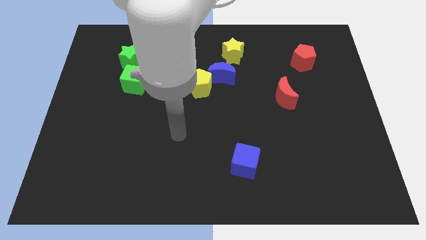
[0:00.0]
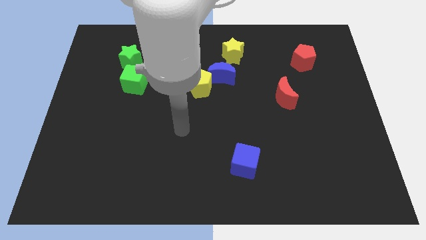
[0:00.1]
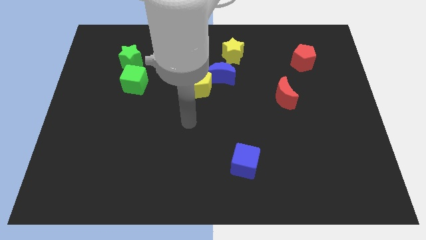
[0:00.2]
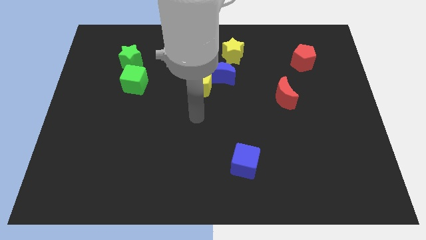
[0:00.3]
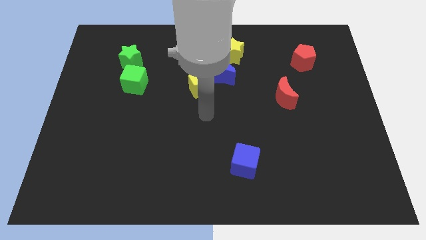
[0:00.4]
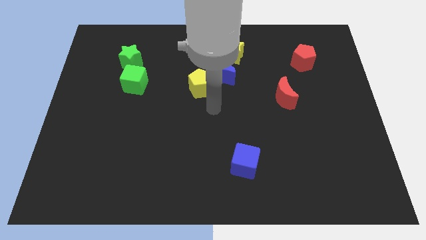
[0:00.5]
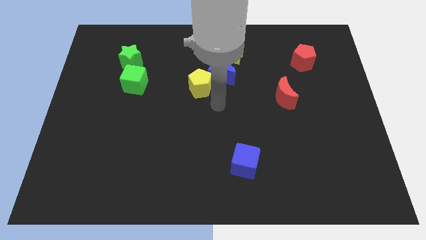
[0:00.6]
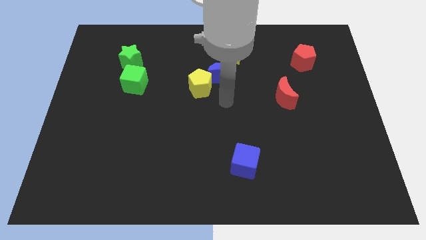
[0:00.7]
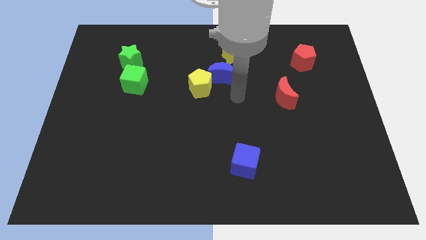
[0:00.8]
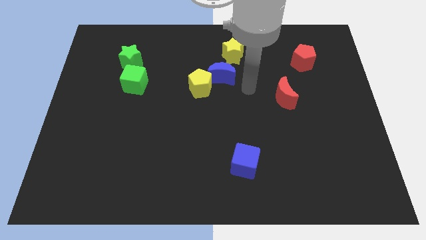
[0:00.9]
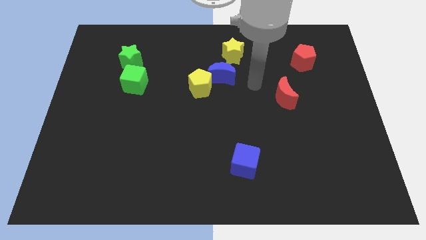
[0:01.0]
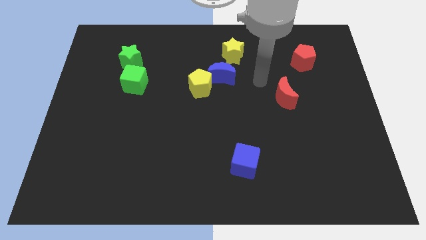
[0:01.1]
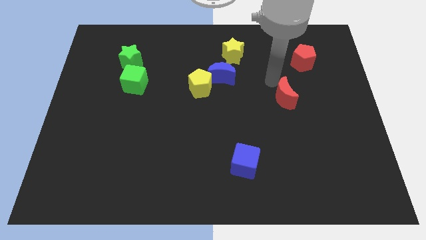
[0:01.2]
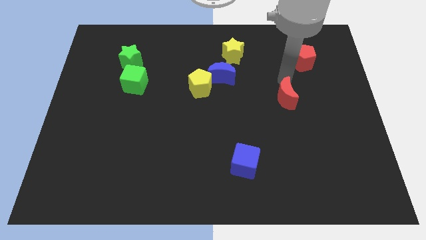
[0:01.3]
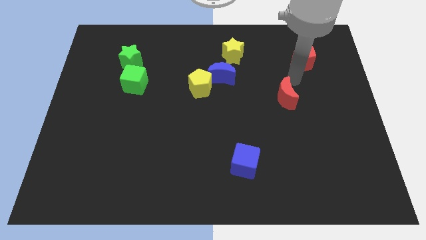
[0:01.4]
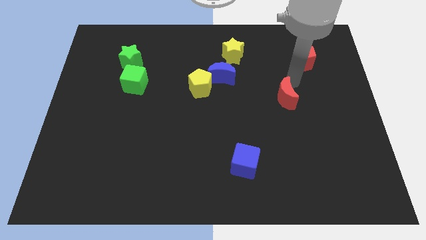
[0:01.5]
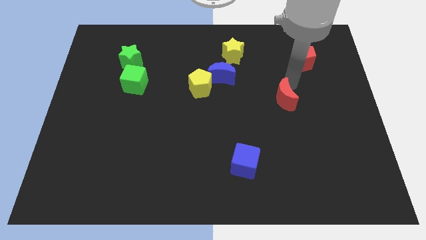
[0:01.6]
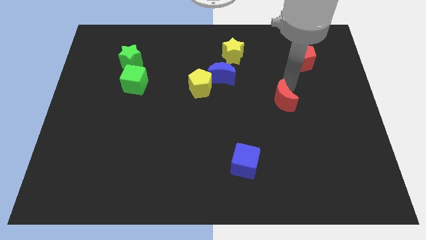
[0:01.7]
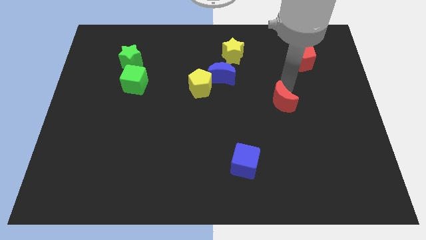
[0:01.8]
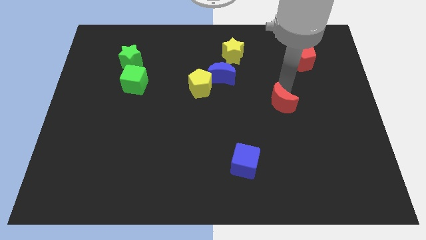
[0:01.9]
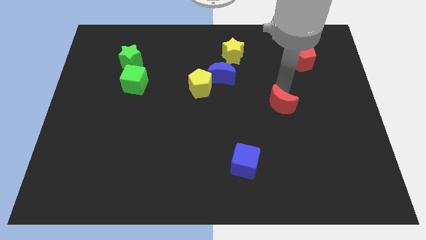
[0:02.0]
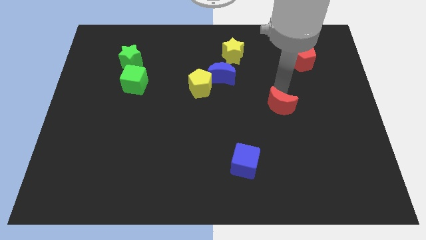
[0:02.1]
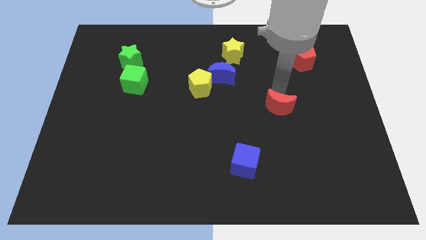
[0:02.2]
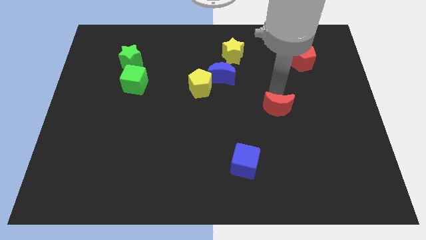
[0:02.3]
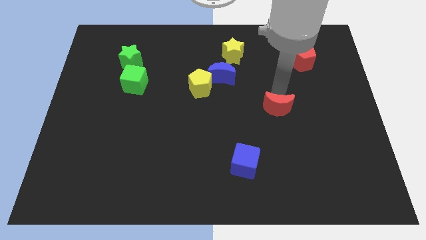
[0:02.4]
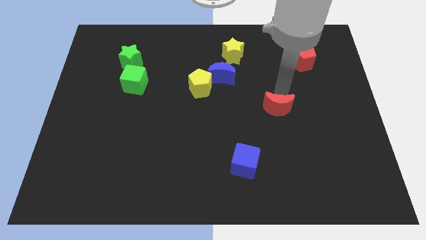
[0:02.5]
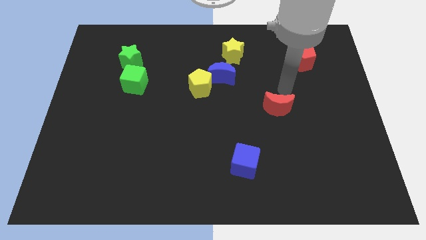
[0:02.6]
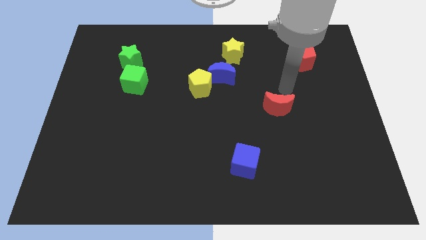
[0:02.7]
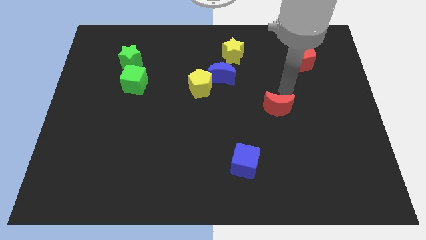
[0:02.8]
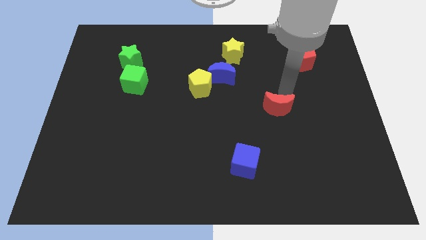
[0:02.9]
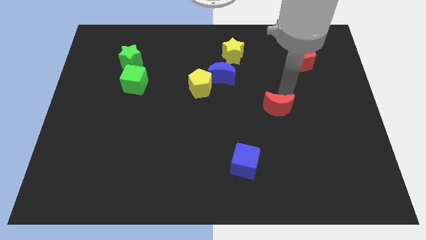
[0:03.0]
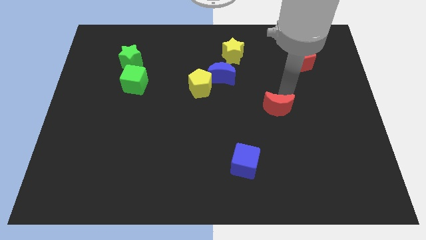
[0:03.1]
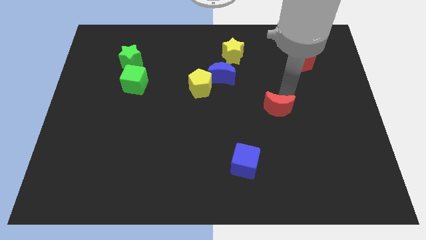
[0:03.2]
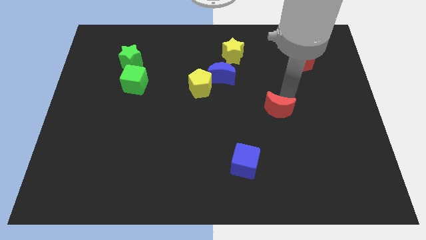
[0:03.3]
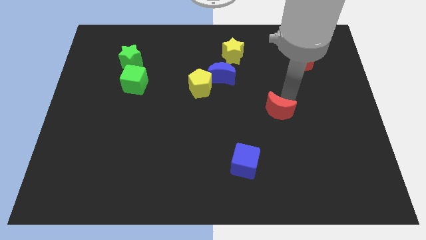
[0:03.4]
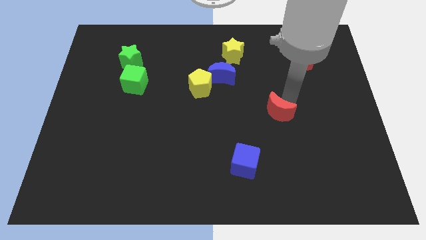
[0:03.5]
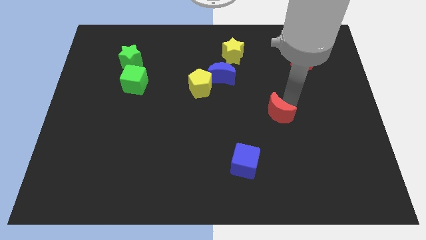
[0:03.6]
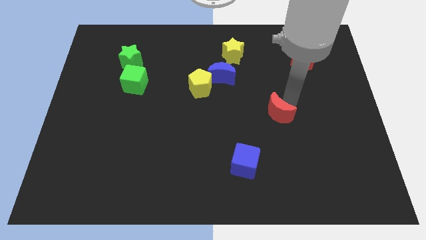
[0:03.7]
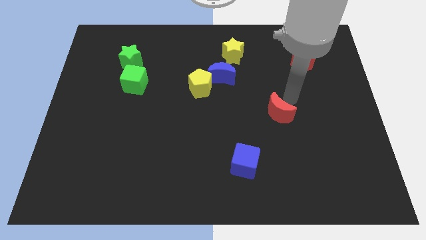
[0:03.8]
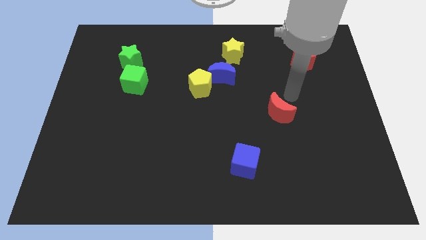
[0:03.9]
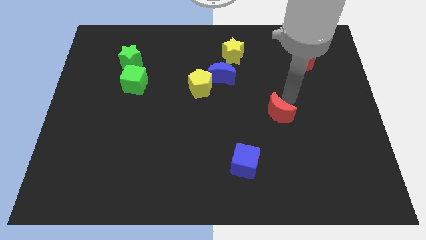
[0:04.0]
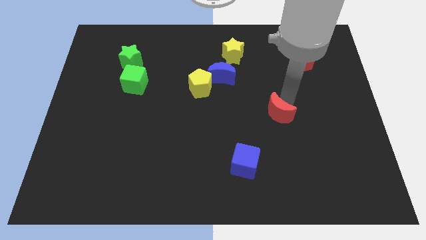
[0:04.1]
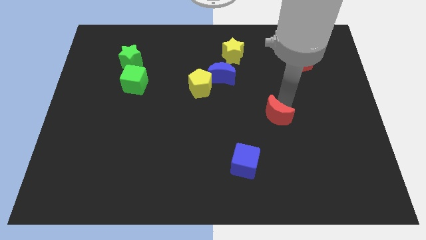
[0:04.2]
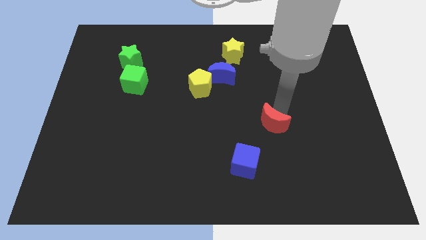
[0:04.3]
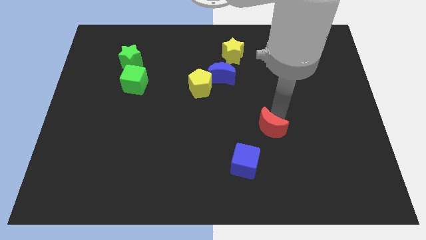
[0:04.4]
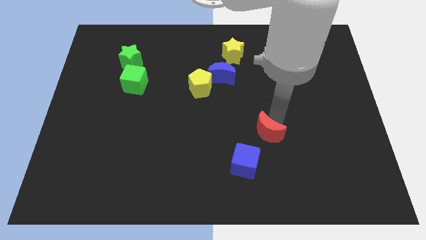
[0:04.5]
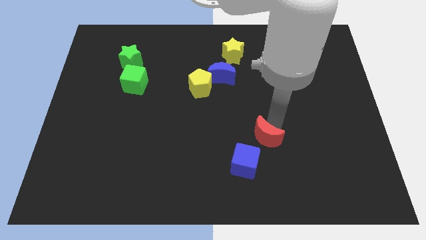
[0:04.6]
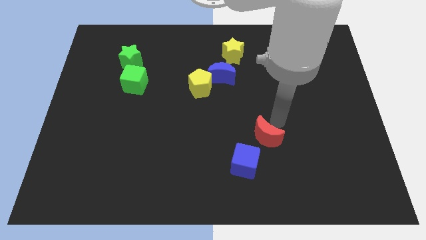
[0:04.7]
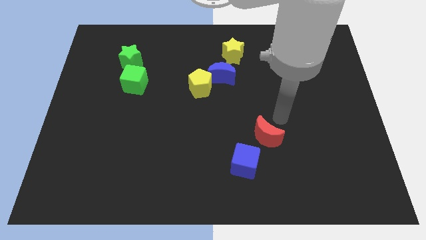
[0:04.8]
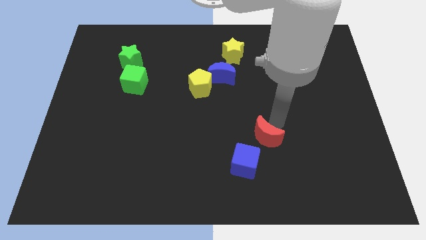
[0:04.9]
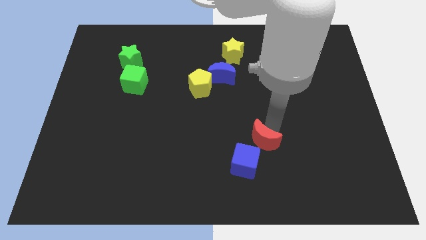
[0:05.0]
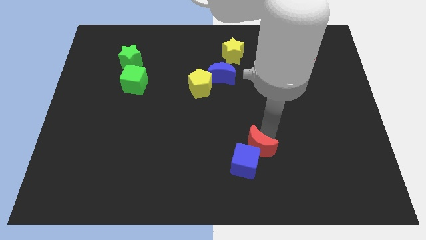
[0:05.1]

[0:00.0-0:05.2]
push the red moon close to the blue cube

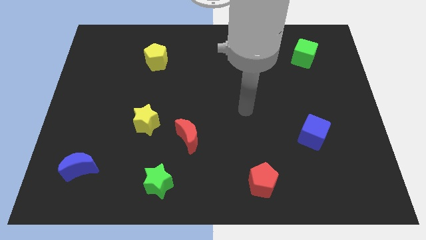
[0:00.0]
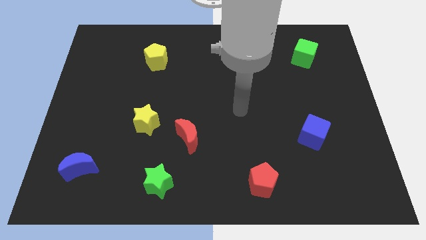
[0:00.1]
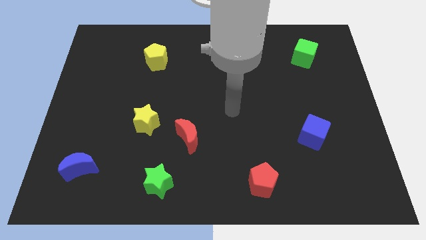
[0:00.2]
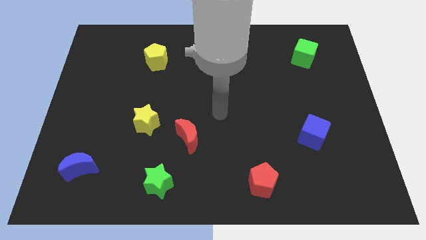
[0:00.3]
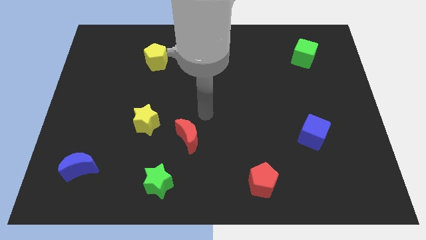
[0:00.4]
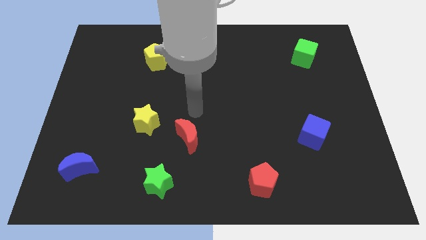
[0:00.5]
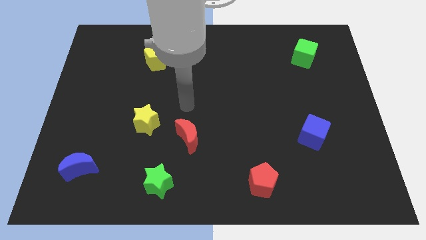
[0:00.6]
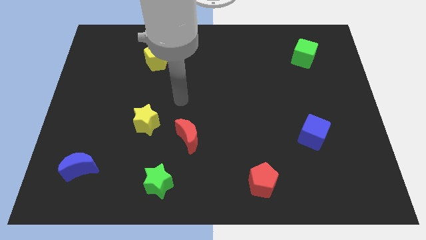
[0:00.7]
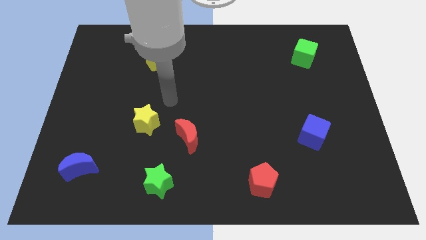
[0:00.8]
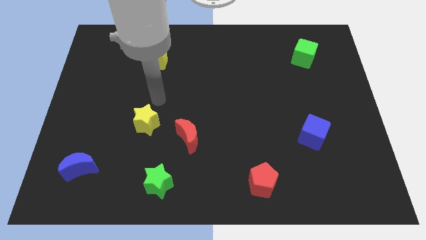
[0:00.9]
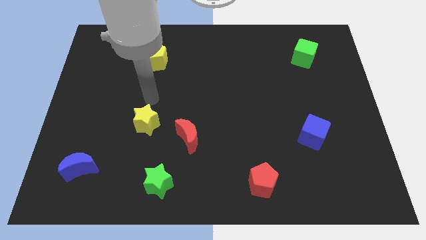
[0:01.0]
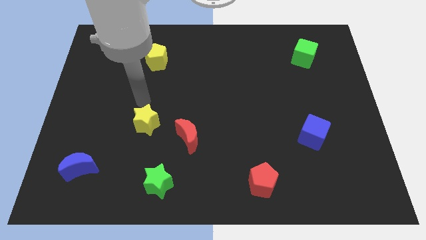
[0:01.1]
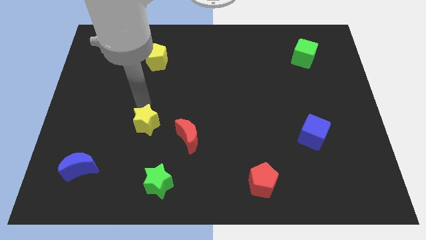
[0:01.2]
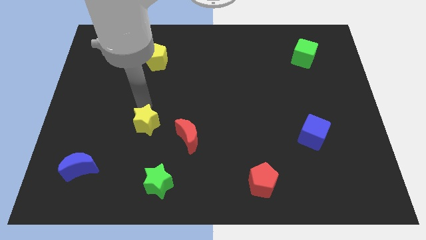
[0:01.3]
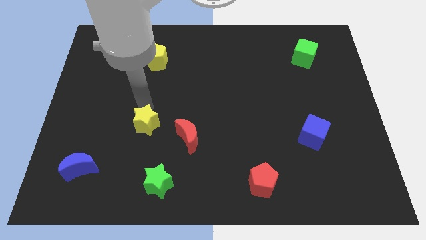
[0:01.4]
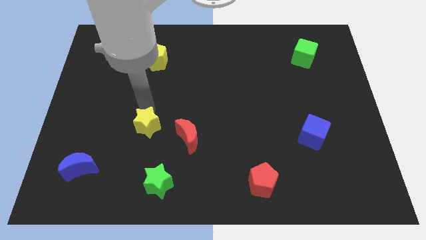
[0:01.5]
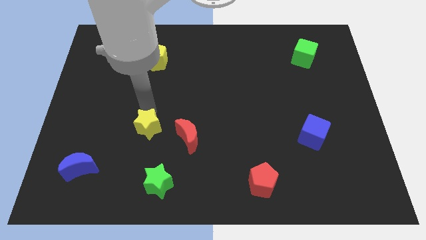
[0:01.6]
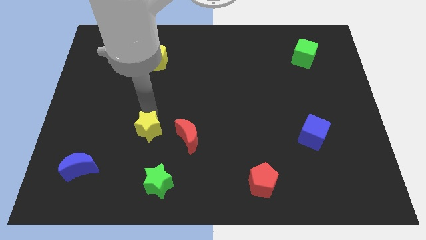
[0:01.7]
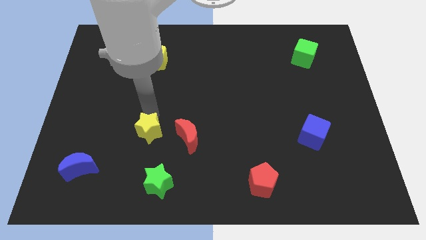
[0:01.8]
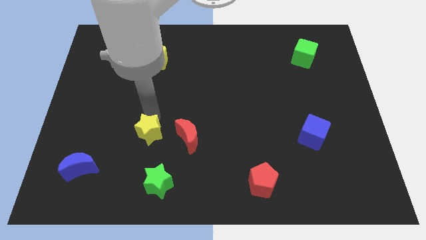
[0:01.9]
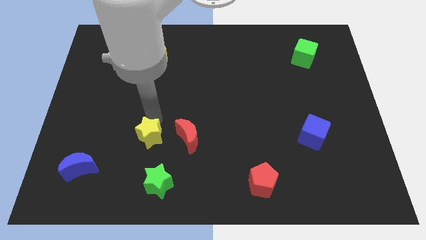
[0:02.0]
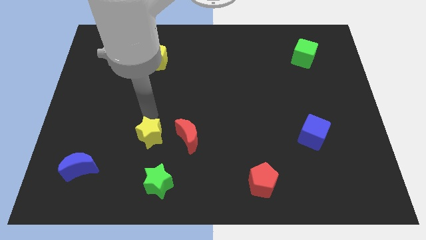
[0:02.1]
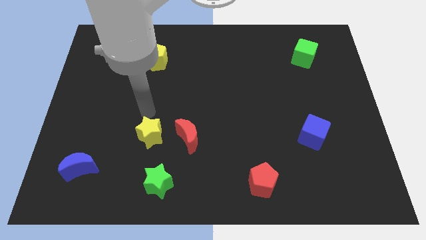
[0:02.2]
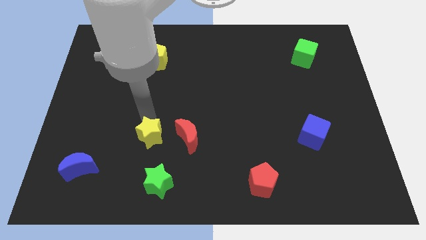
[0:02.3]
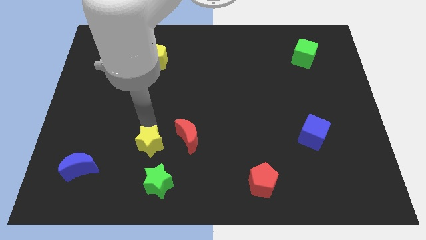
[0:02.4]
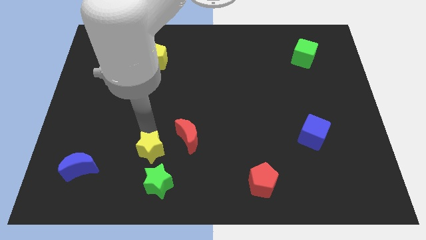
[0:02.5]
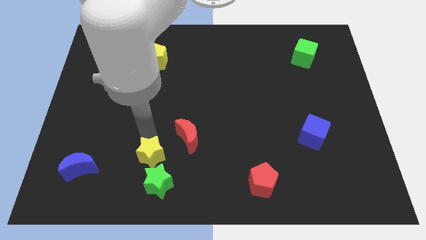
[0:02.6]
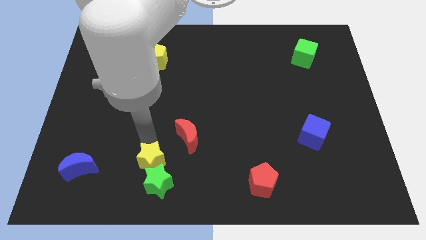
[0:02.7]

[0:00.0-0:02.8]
push the yellow star close to the green star
